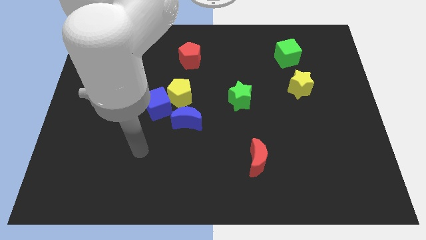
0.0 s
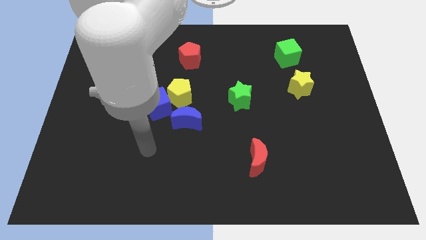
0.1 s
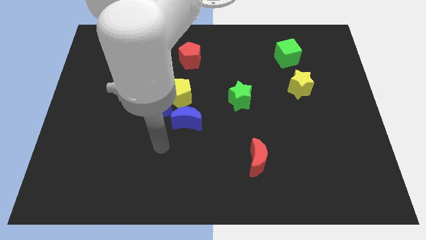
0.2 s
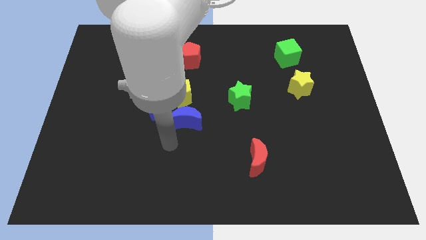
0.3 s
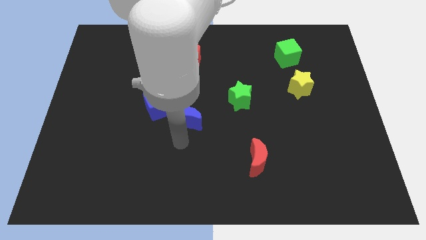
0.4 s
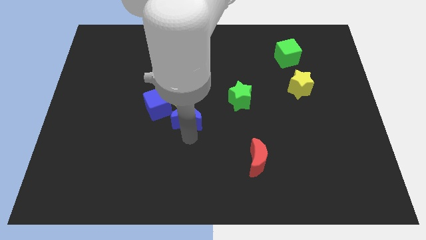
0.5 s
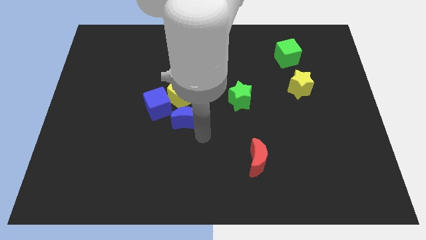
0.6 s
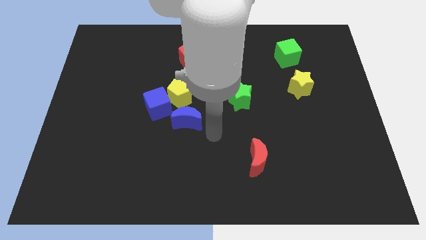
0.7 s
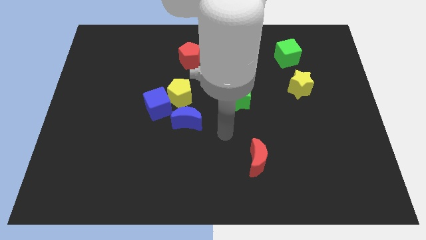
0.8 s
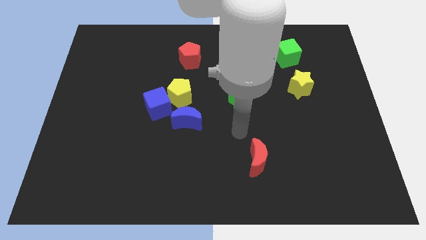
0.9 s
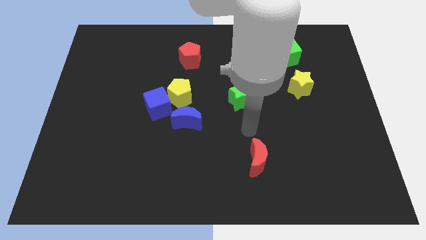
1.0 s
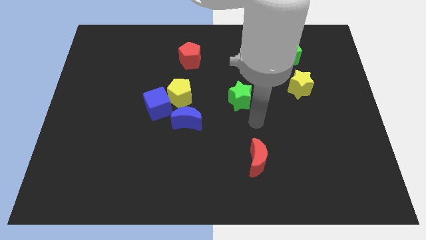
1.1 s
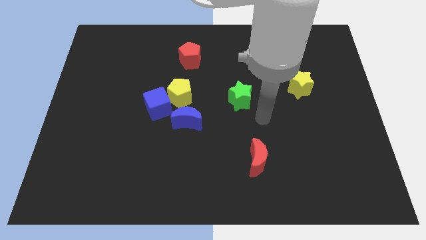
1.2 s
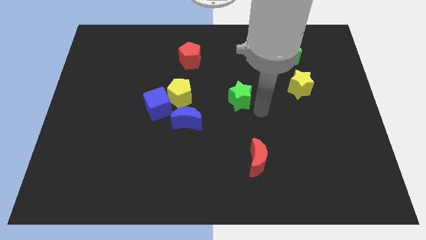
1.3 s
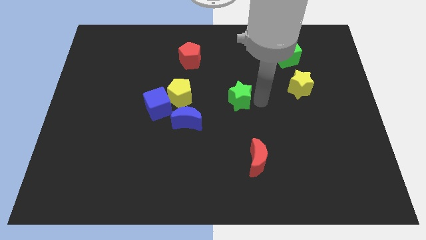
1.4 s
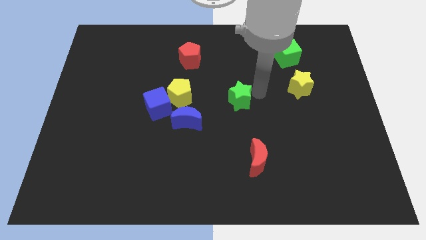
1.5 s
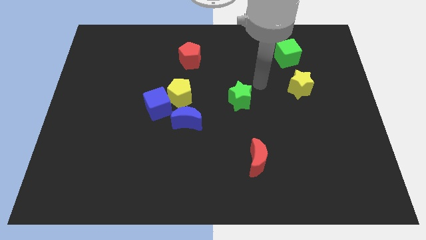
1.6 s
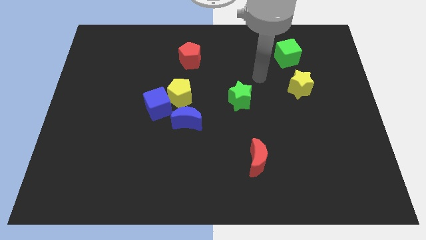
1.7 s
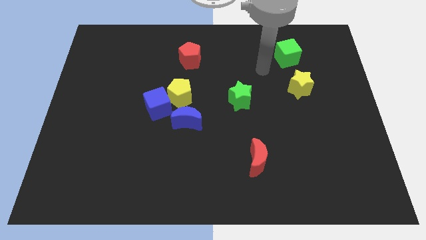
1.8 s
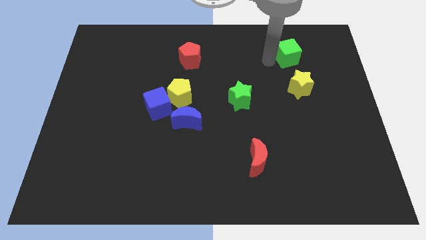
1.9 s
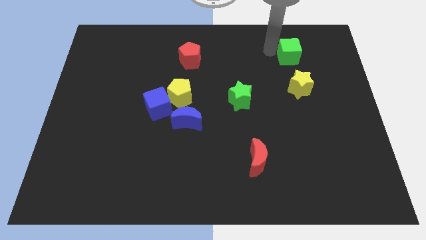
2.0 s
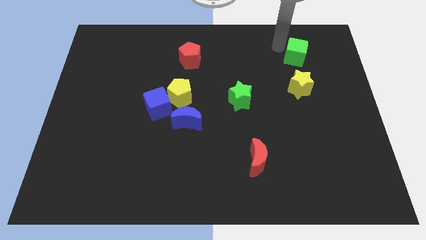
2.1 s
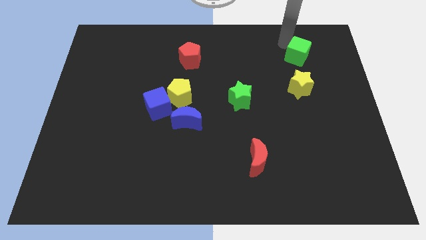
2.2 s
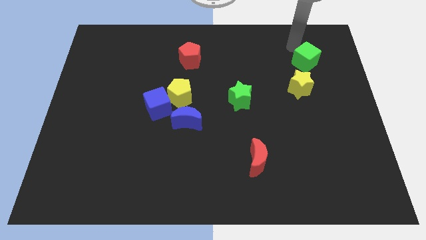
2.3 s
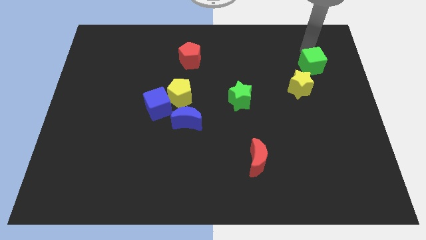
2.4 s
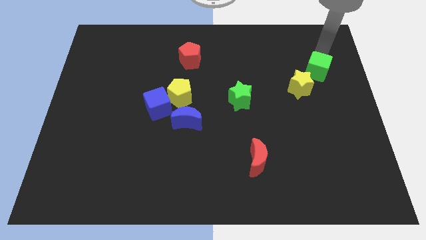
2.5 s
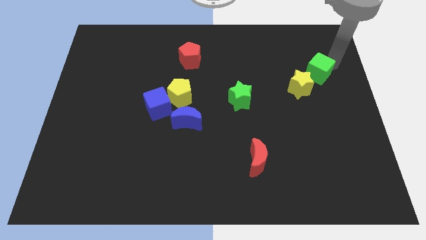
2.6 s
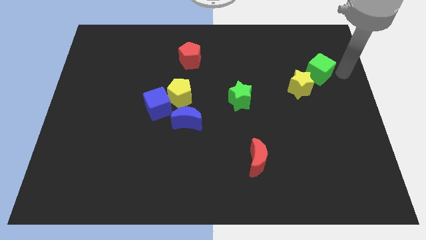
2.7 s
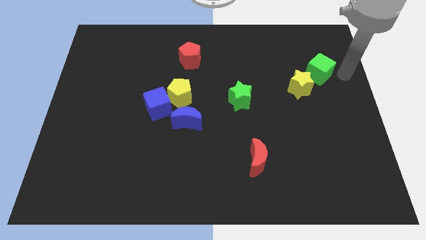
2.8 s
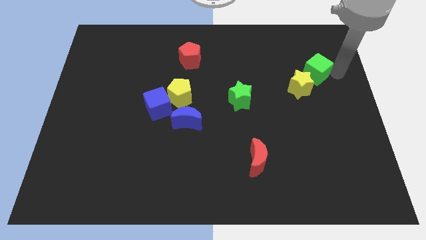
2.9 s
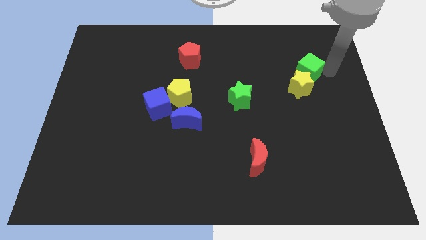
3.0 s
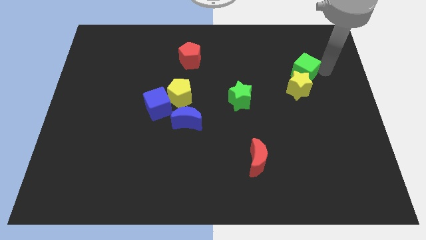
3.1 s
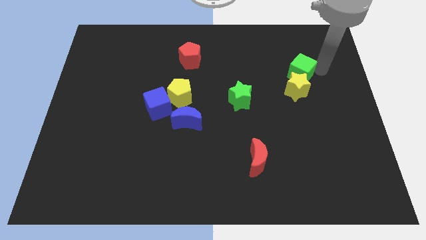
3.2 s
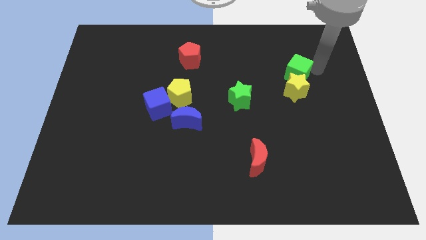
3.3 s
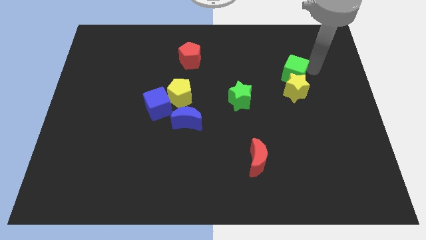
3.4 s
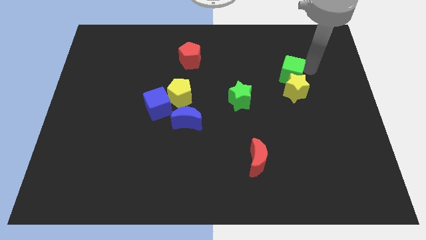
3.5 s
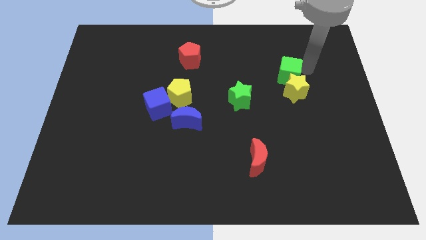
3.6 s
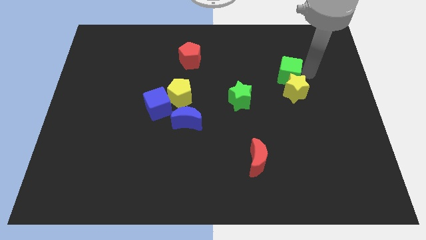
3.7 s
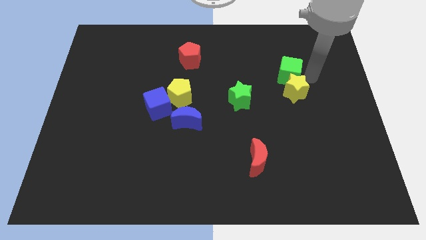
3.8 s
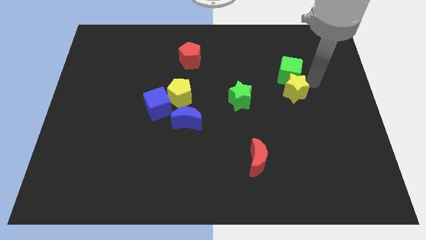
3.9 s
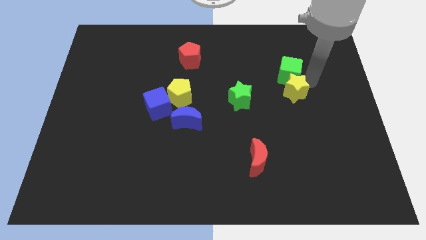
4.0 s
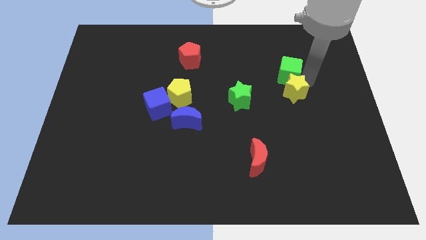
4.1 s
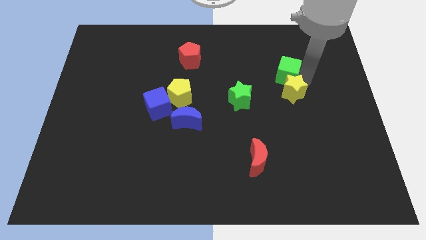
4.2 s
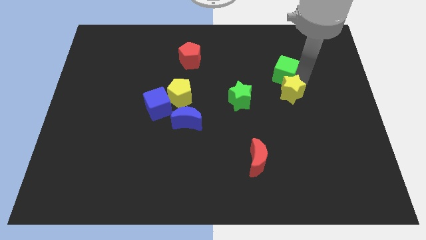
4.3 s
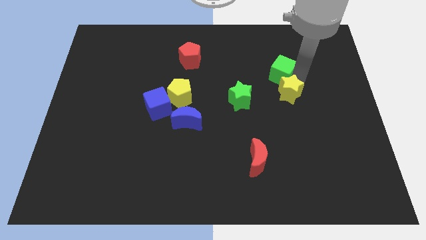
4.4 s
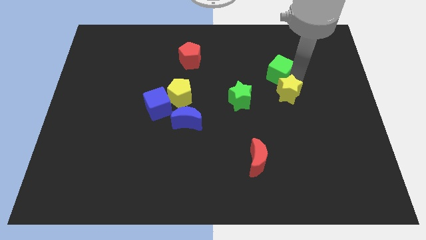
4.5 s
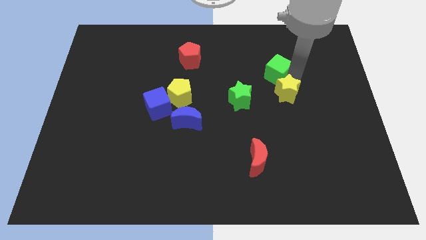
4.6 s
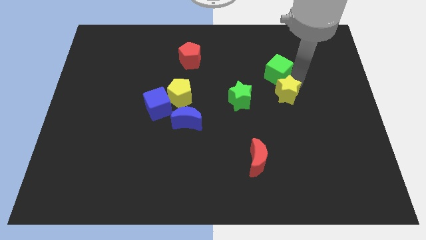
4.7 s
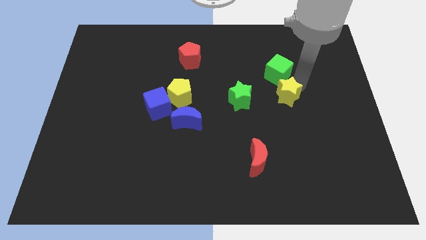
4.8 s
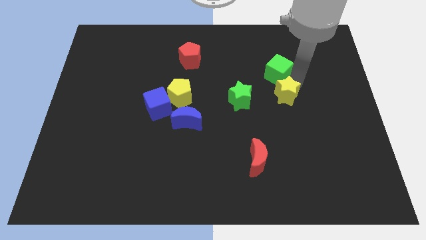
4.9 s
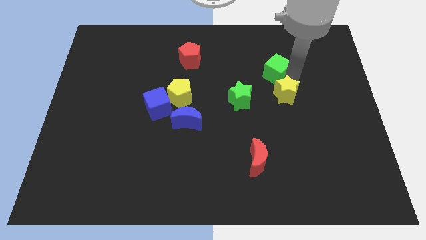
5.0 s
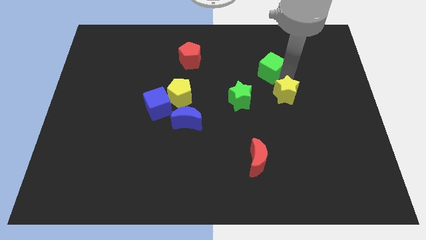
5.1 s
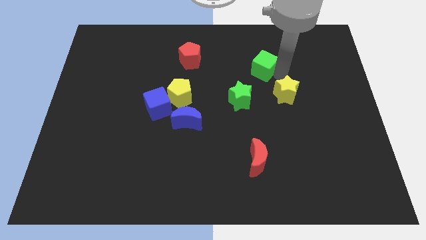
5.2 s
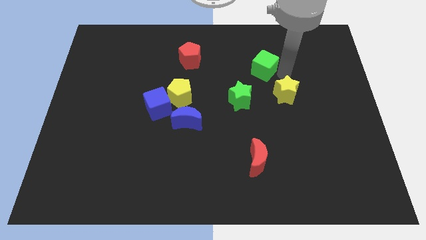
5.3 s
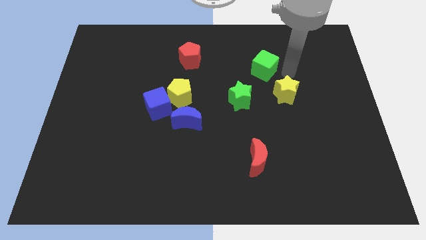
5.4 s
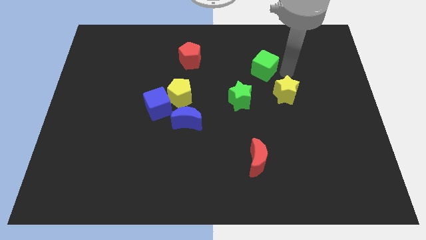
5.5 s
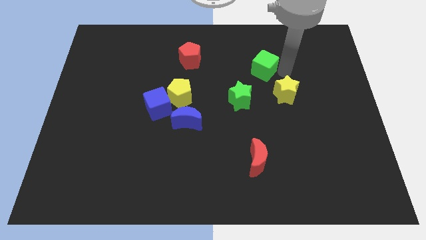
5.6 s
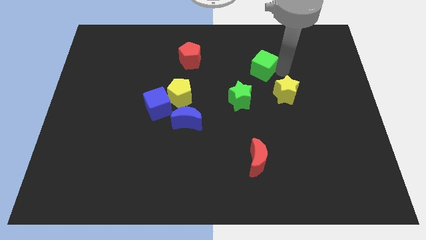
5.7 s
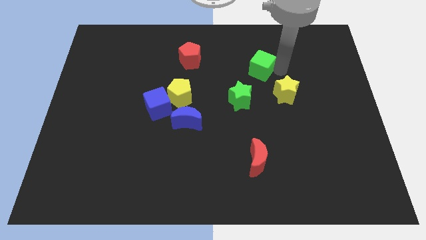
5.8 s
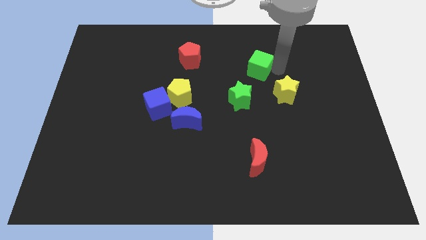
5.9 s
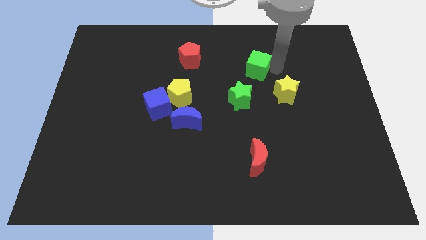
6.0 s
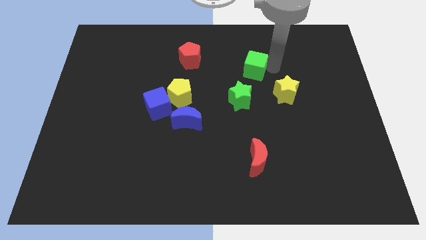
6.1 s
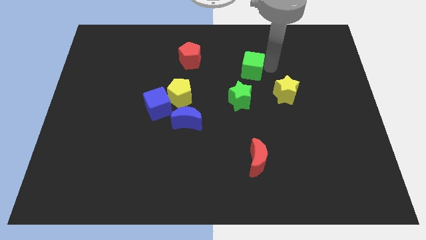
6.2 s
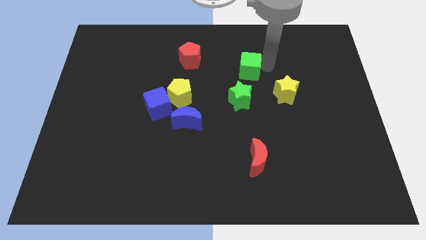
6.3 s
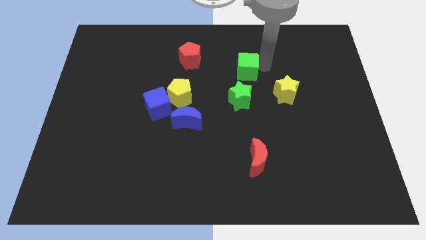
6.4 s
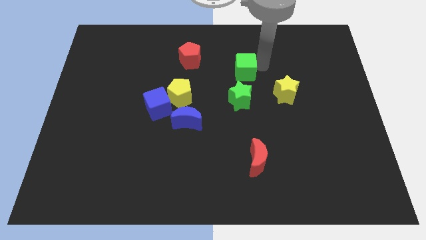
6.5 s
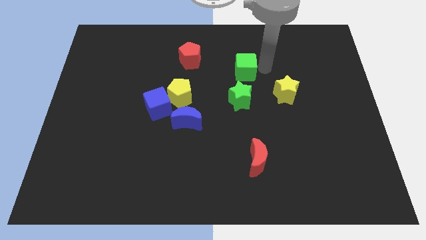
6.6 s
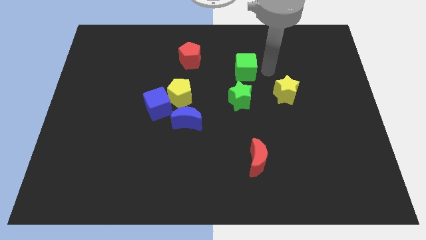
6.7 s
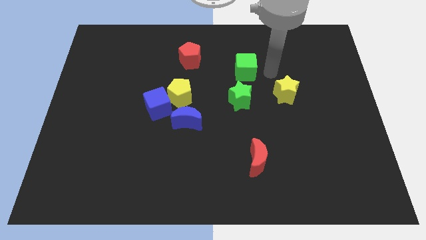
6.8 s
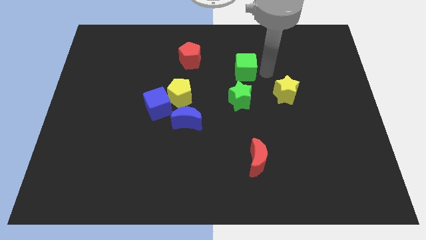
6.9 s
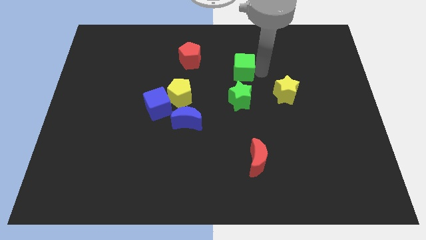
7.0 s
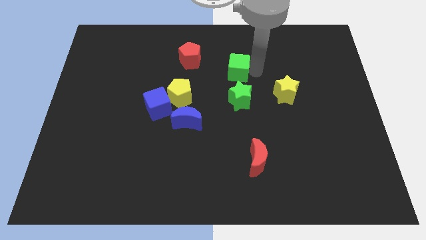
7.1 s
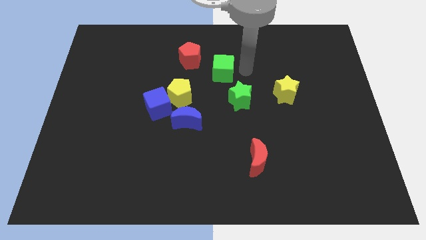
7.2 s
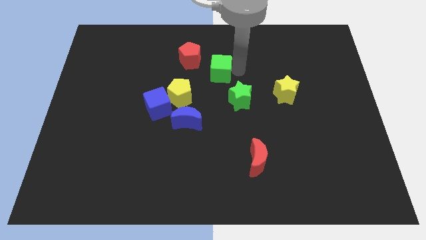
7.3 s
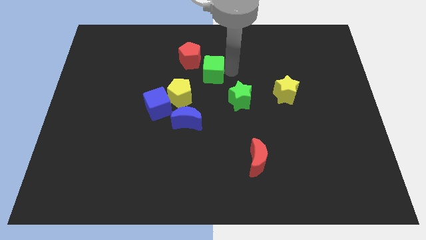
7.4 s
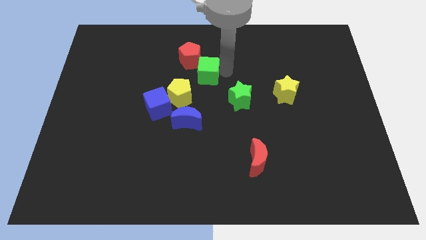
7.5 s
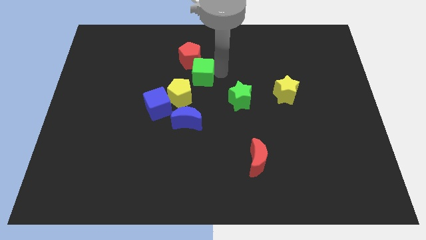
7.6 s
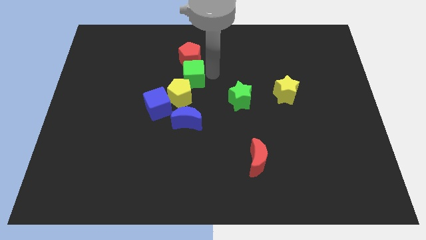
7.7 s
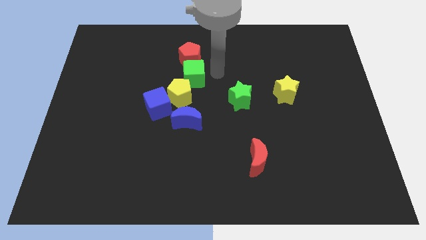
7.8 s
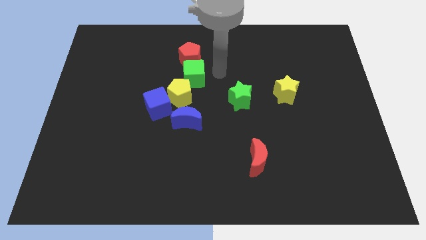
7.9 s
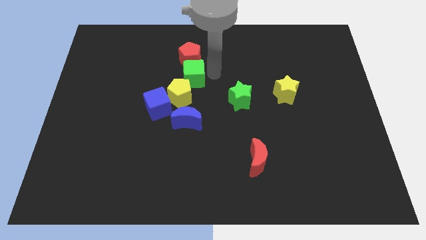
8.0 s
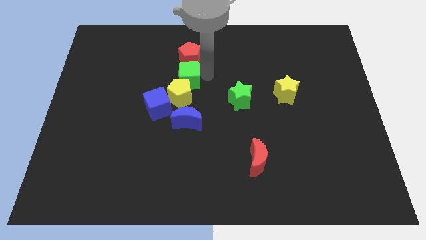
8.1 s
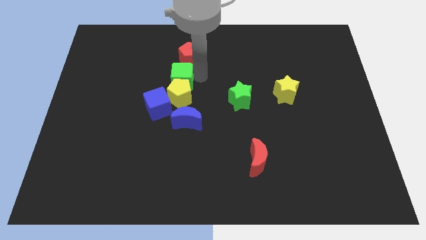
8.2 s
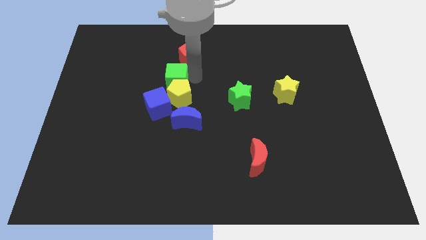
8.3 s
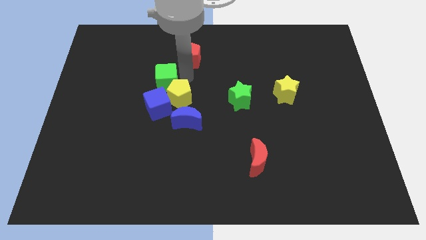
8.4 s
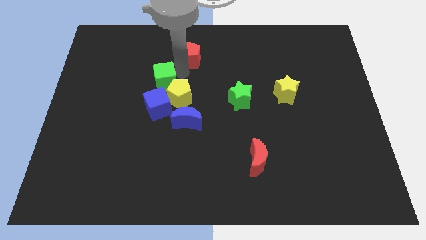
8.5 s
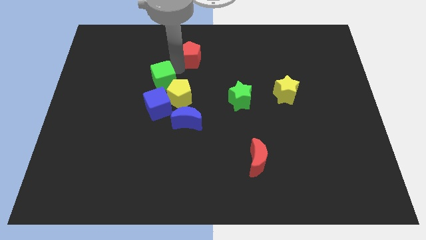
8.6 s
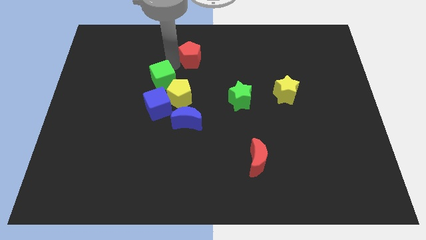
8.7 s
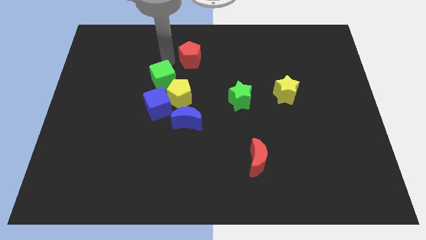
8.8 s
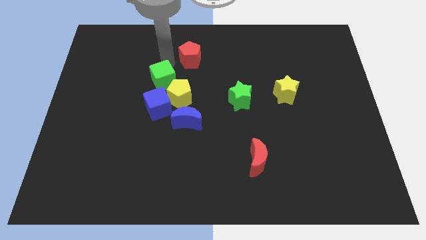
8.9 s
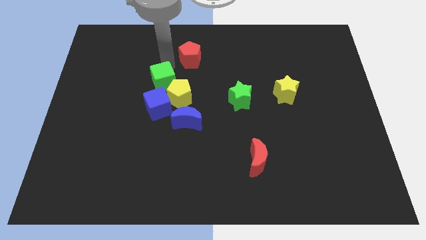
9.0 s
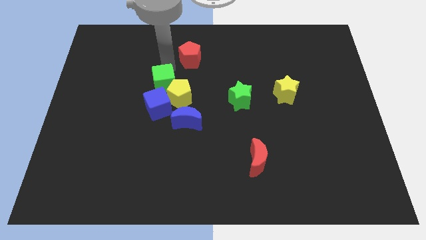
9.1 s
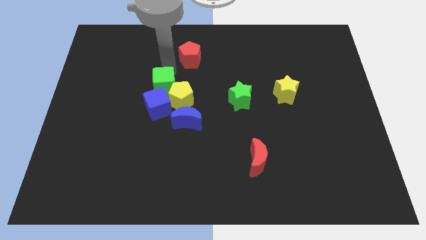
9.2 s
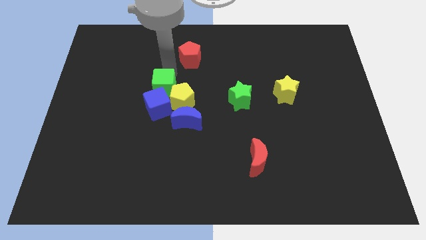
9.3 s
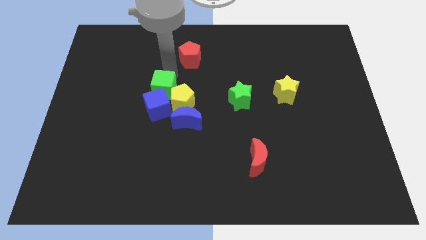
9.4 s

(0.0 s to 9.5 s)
put the green cube towards the blue cube
